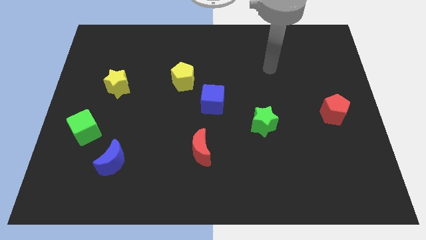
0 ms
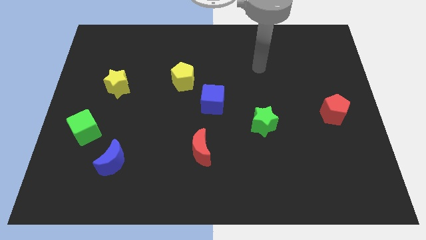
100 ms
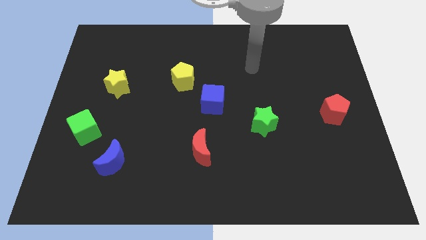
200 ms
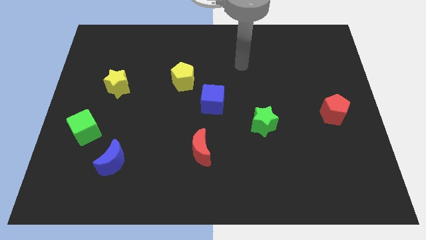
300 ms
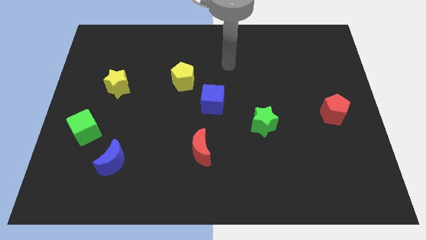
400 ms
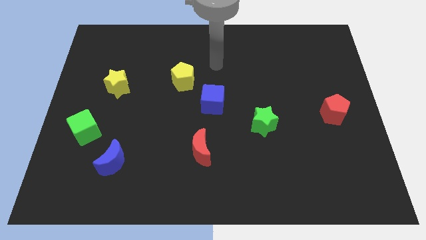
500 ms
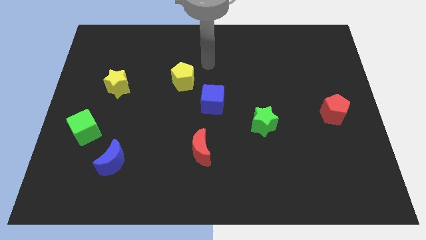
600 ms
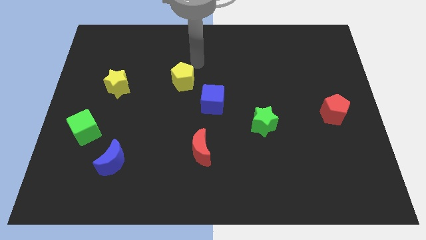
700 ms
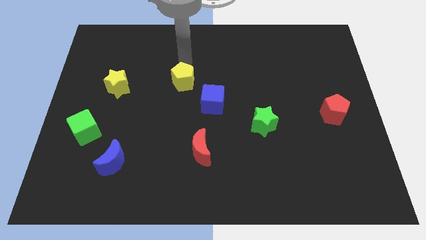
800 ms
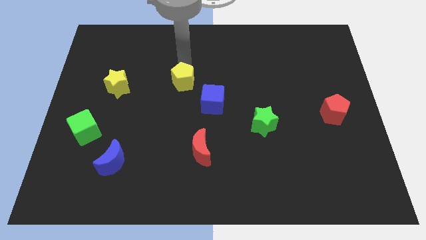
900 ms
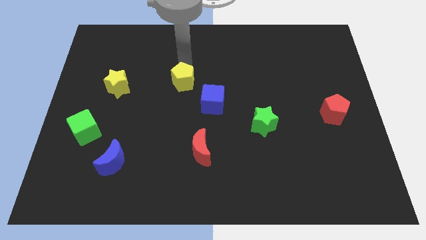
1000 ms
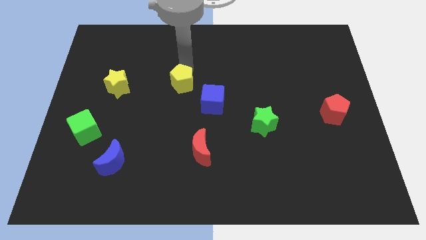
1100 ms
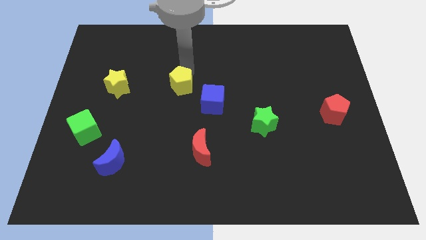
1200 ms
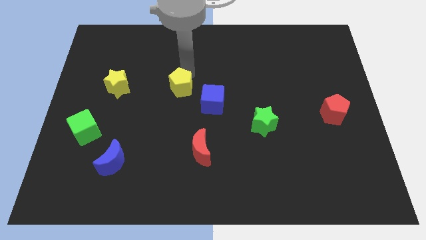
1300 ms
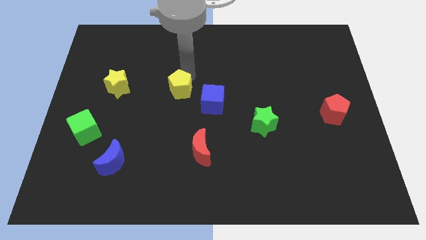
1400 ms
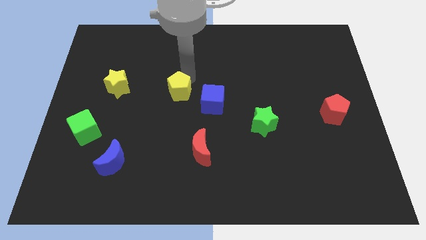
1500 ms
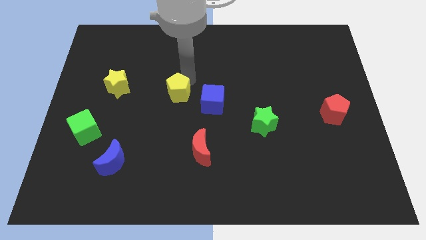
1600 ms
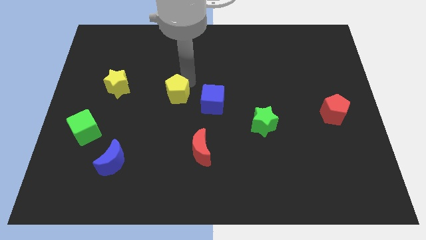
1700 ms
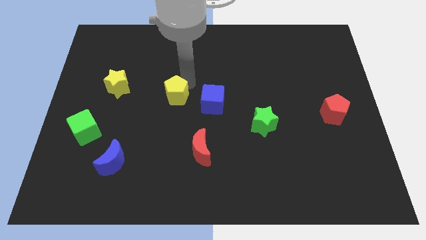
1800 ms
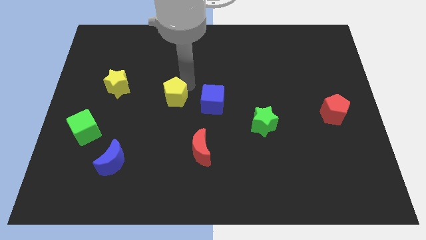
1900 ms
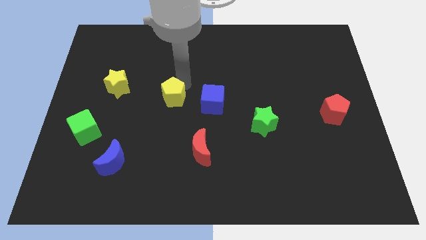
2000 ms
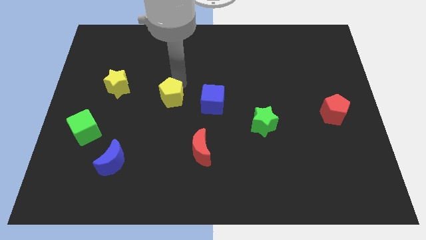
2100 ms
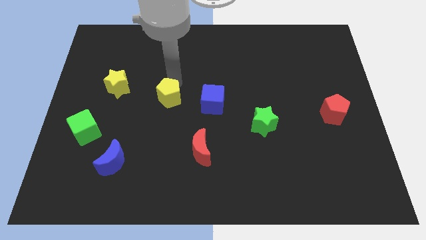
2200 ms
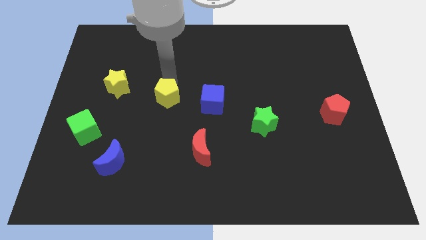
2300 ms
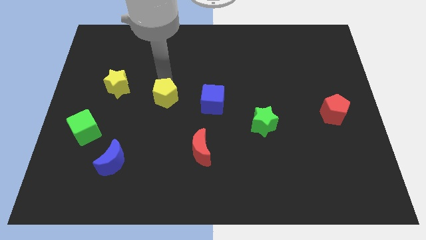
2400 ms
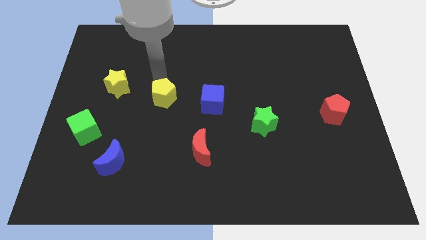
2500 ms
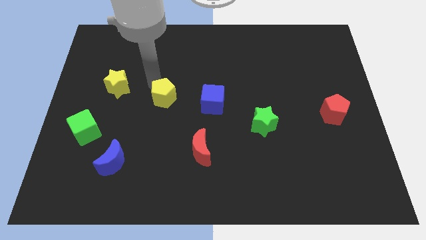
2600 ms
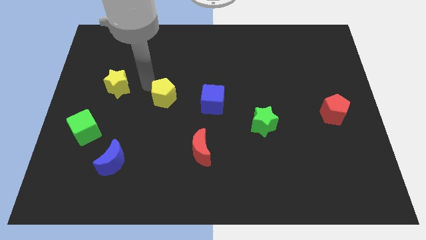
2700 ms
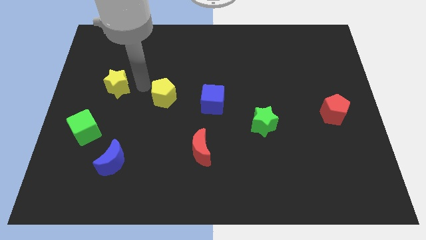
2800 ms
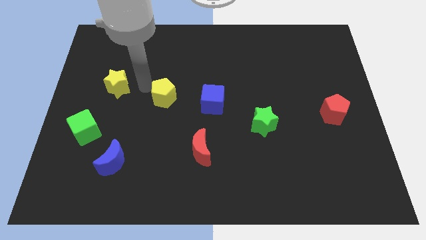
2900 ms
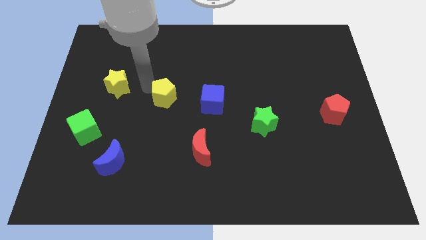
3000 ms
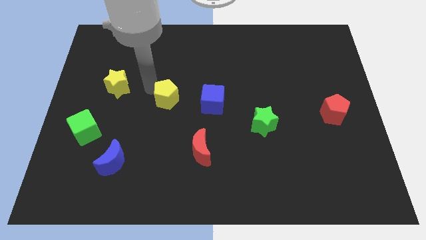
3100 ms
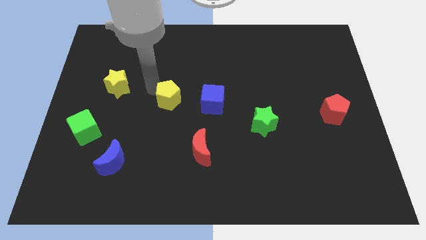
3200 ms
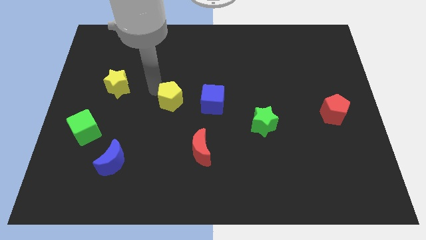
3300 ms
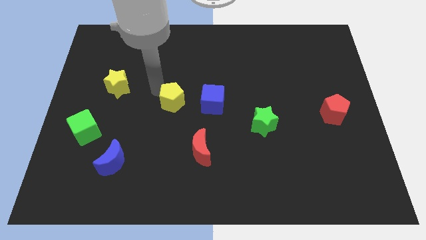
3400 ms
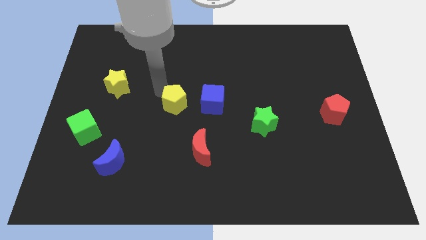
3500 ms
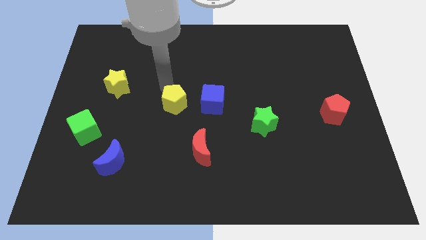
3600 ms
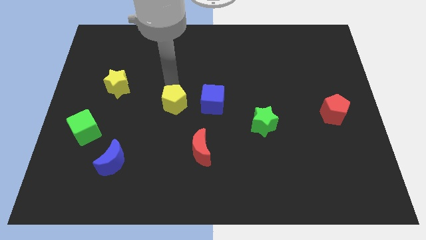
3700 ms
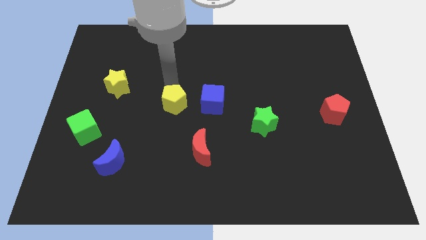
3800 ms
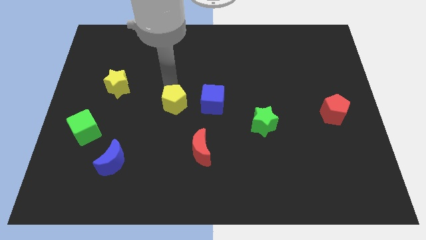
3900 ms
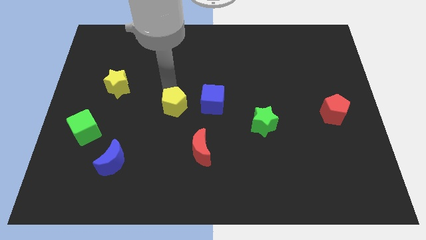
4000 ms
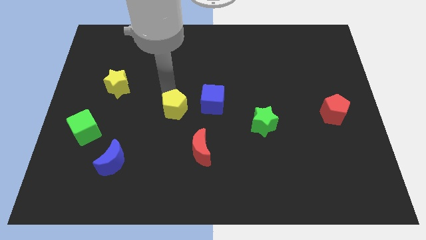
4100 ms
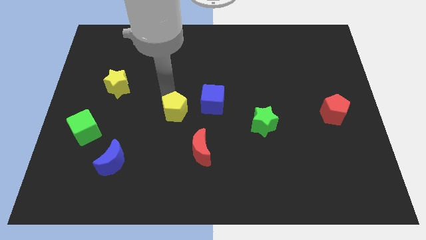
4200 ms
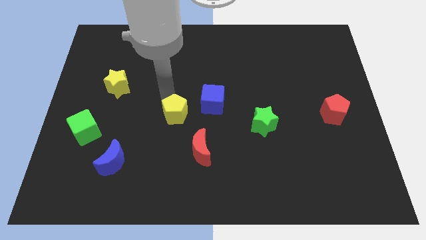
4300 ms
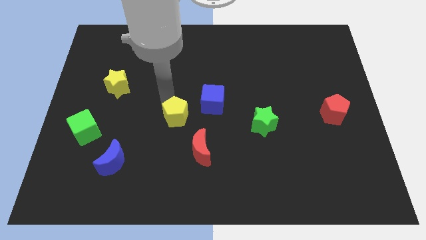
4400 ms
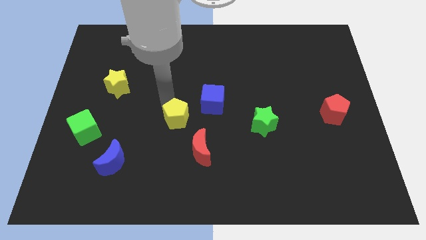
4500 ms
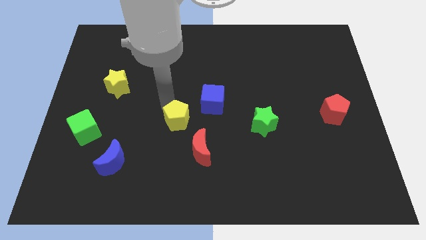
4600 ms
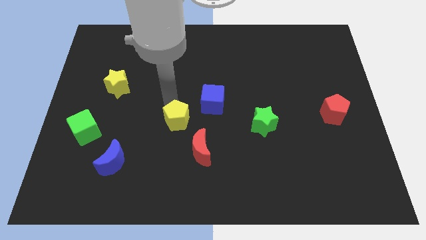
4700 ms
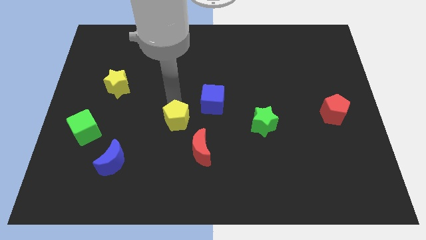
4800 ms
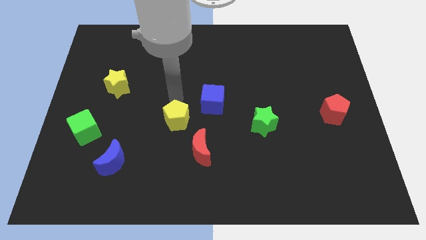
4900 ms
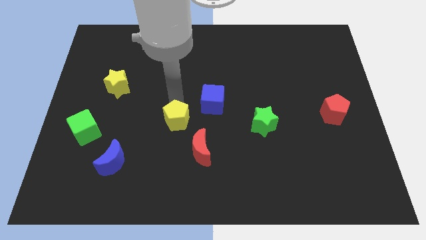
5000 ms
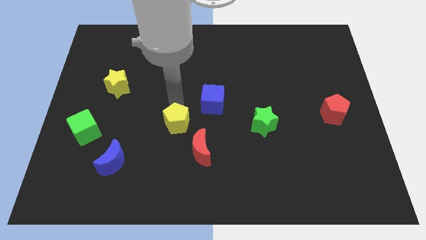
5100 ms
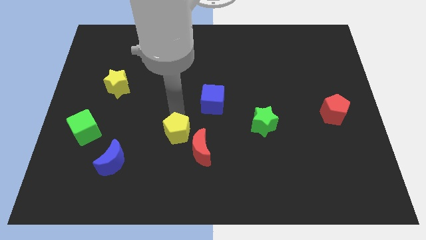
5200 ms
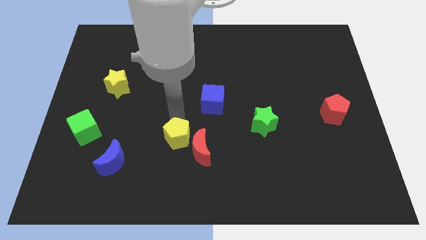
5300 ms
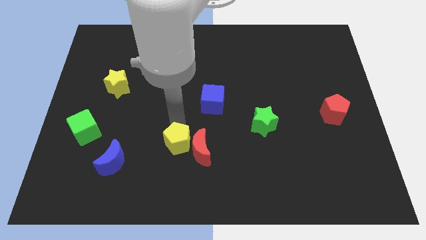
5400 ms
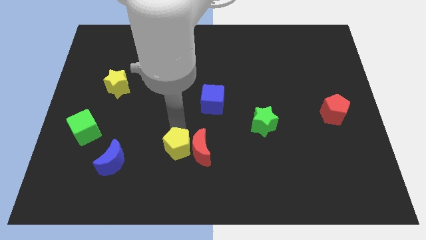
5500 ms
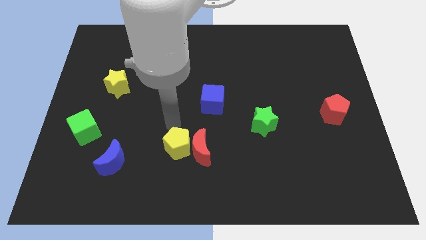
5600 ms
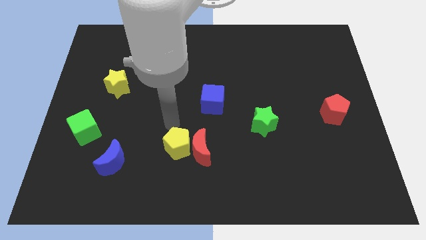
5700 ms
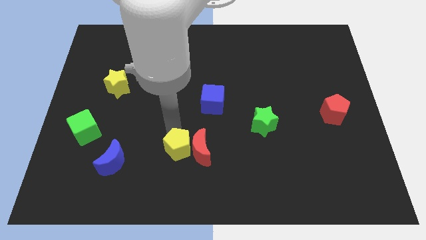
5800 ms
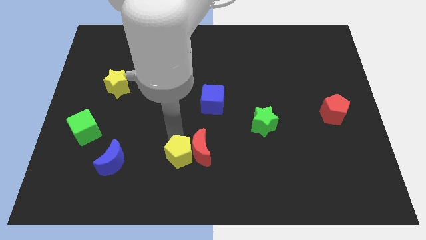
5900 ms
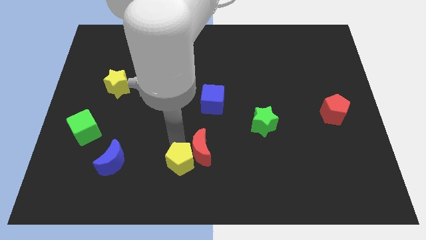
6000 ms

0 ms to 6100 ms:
push the yellow pentagon to the bottom
